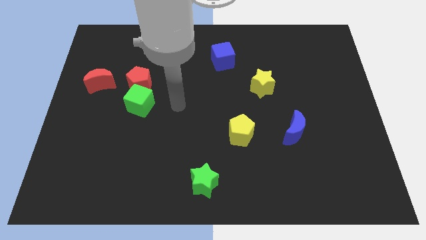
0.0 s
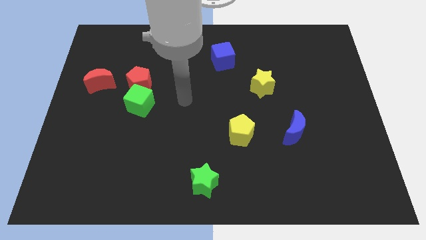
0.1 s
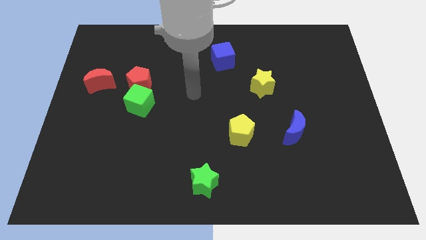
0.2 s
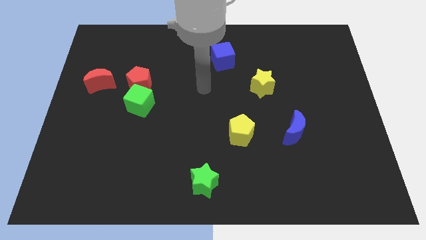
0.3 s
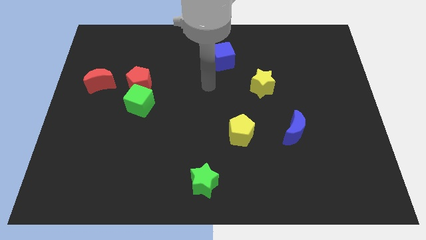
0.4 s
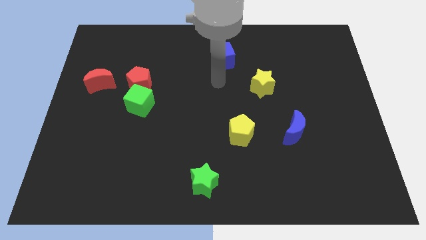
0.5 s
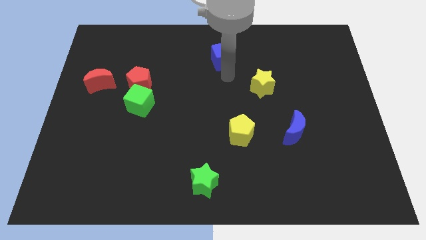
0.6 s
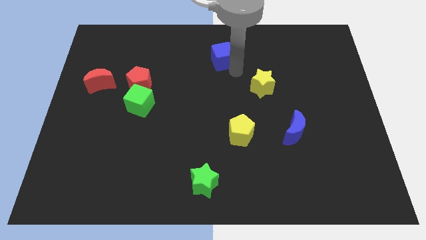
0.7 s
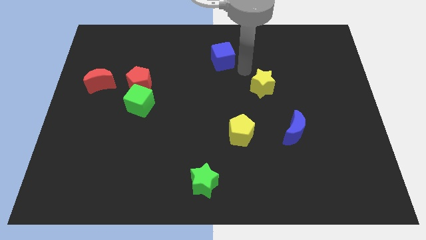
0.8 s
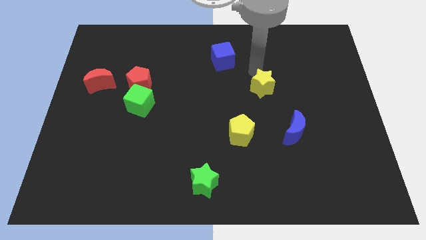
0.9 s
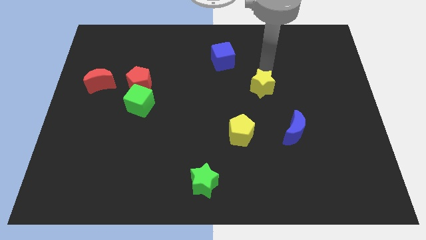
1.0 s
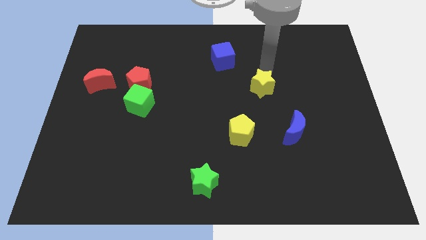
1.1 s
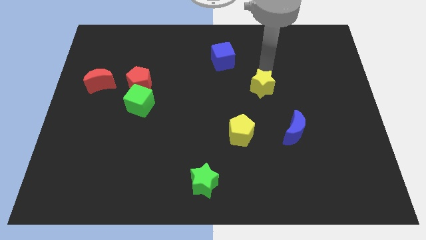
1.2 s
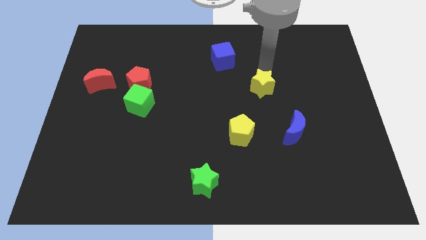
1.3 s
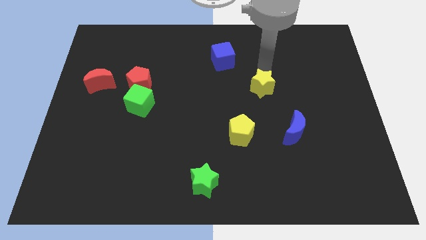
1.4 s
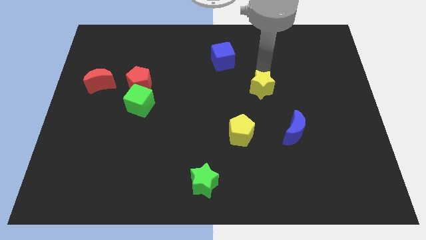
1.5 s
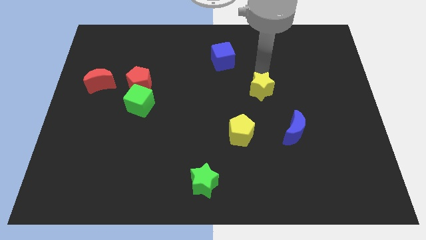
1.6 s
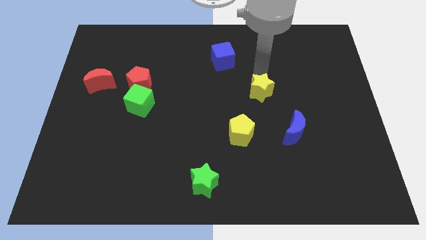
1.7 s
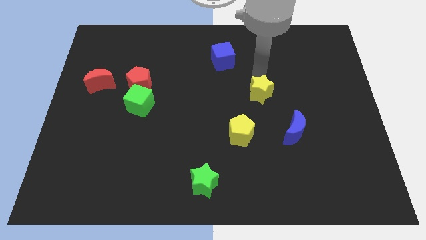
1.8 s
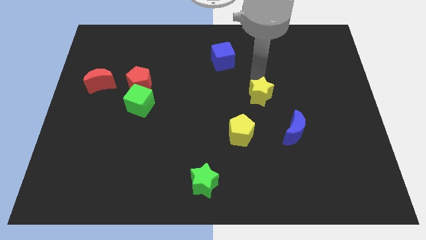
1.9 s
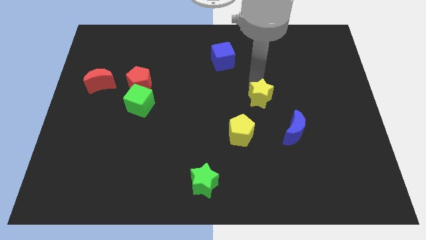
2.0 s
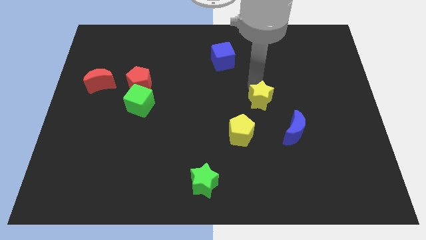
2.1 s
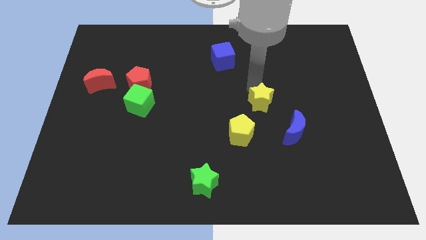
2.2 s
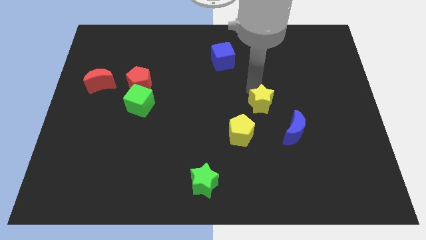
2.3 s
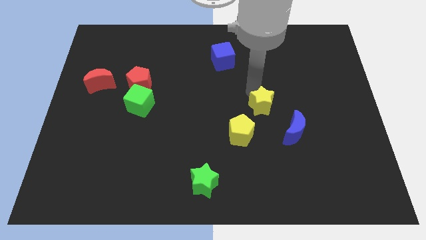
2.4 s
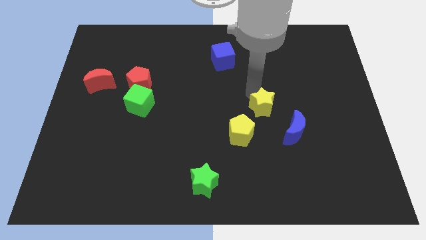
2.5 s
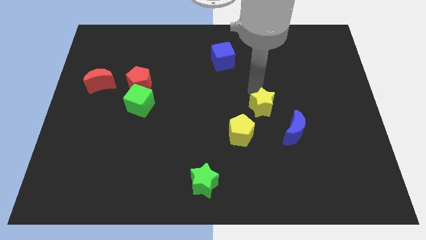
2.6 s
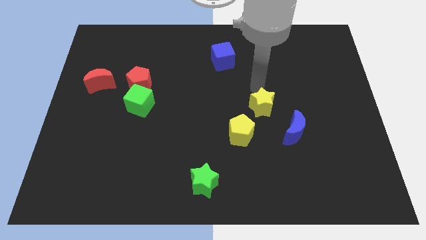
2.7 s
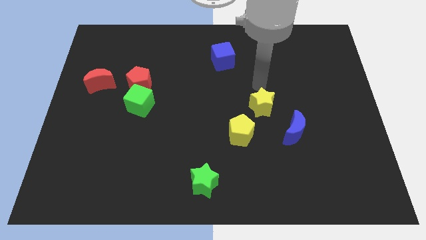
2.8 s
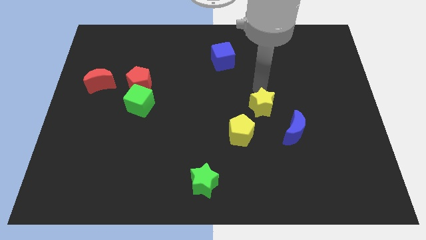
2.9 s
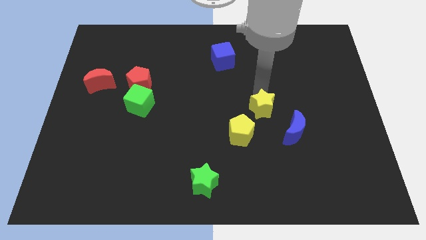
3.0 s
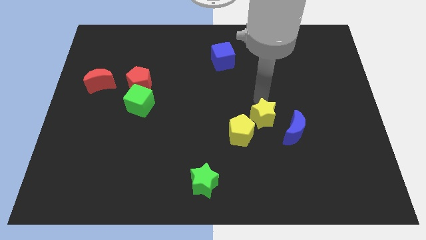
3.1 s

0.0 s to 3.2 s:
slide the yellow star a bit down

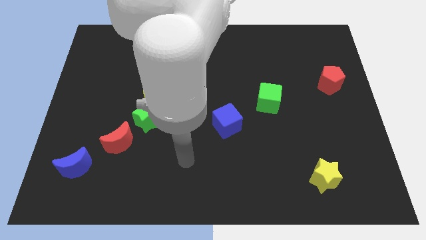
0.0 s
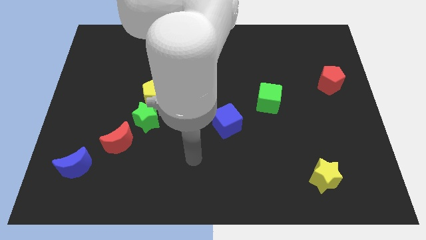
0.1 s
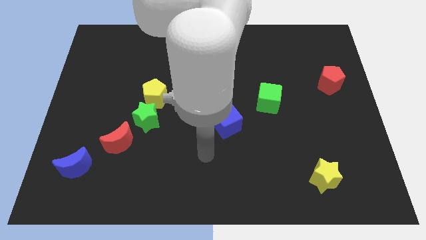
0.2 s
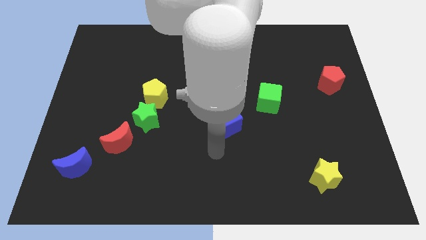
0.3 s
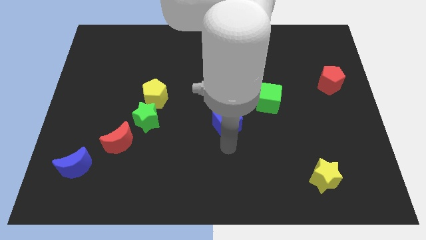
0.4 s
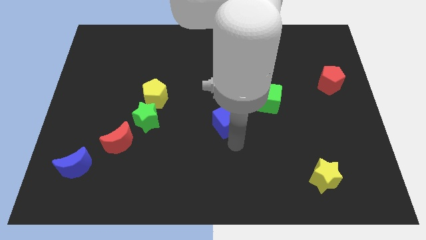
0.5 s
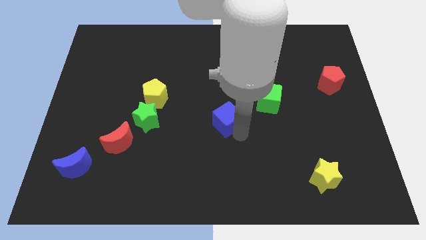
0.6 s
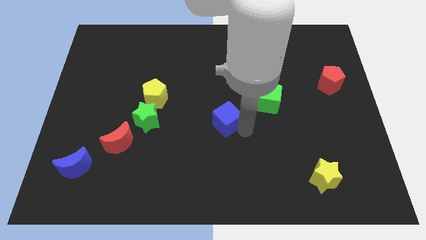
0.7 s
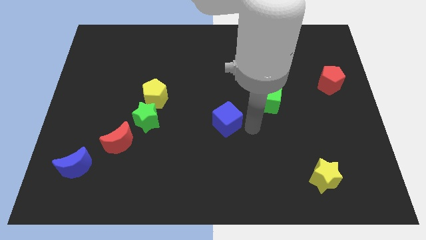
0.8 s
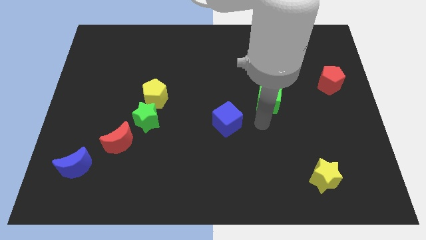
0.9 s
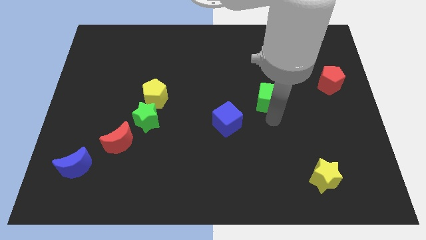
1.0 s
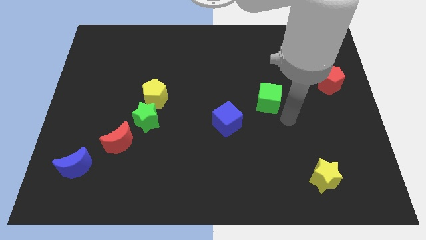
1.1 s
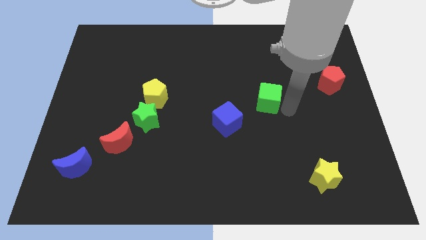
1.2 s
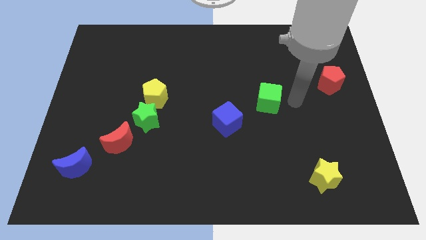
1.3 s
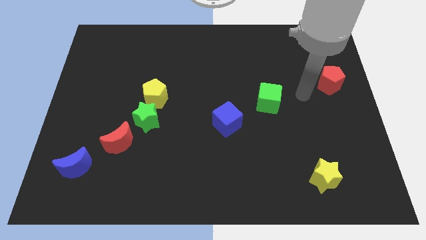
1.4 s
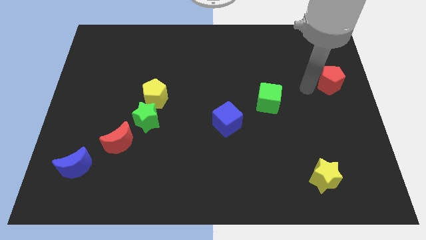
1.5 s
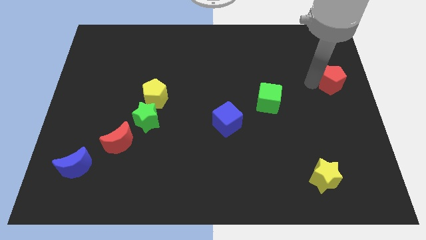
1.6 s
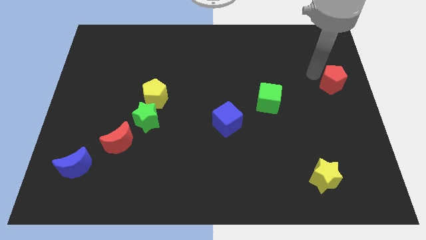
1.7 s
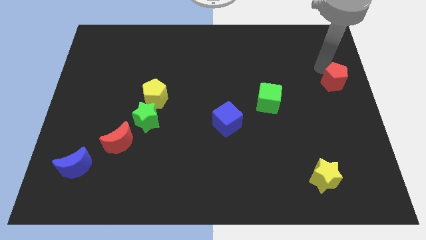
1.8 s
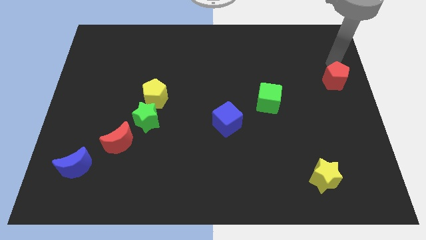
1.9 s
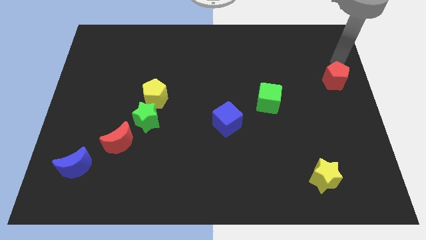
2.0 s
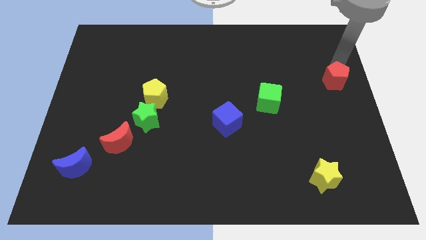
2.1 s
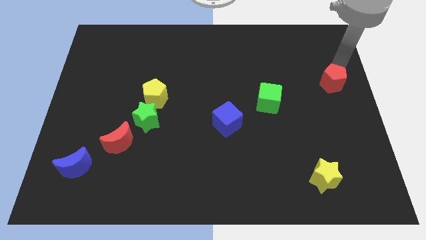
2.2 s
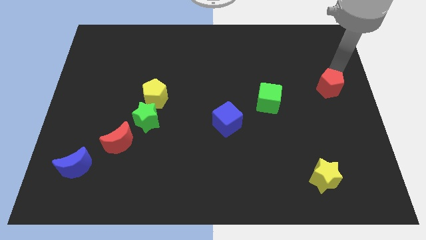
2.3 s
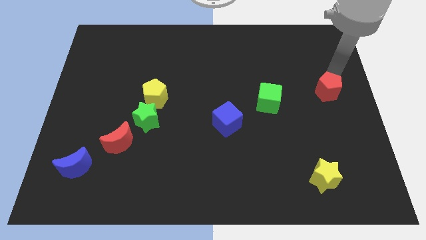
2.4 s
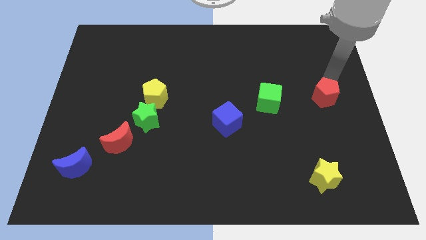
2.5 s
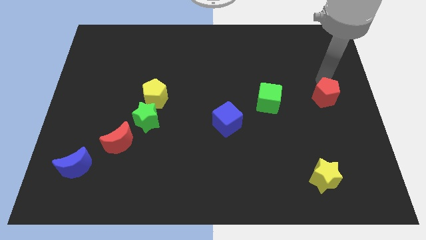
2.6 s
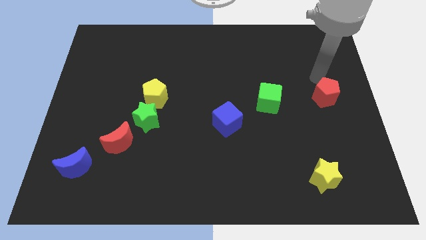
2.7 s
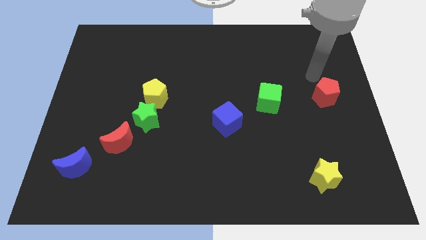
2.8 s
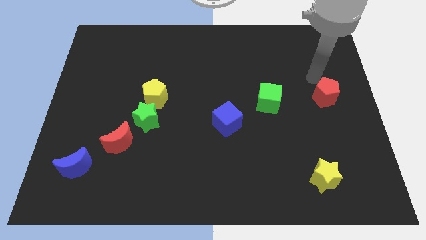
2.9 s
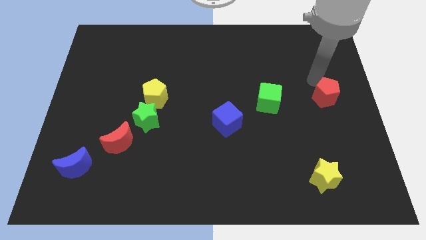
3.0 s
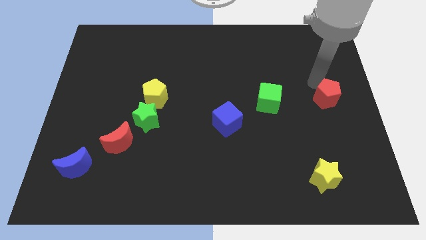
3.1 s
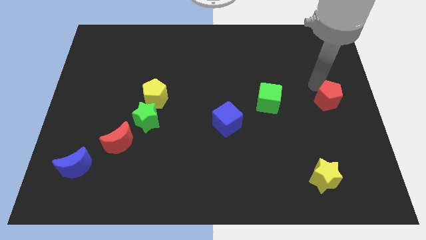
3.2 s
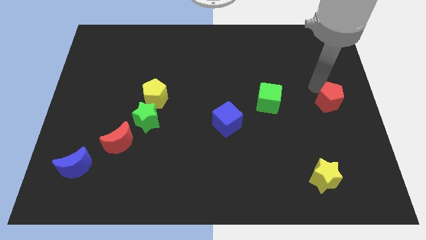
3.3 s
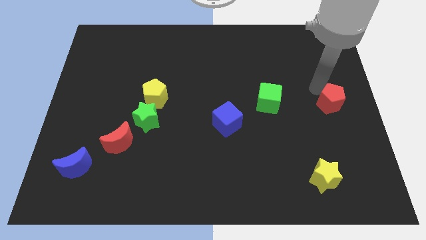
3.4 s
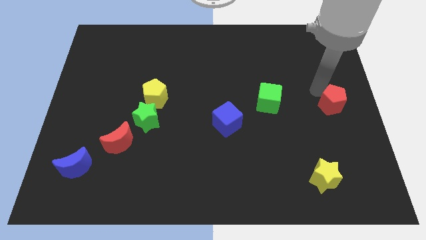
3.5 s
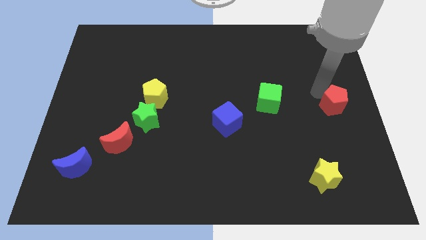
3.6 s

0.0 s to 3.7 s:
slide the red pentagon a little downwards

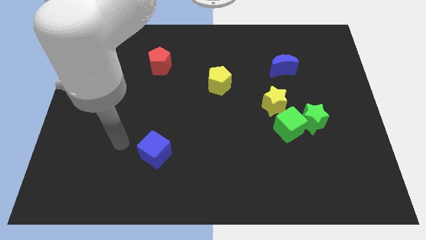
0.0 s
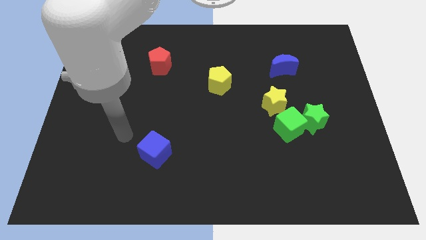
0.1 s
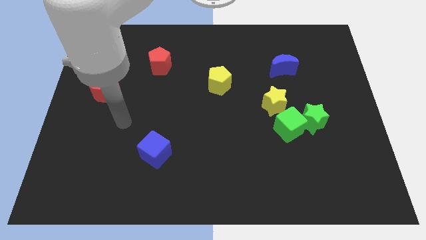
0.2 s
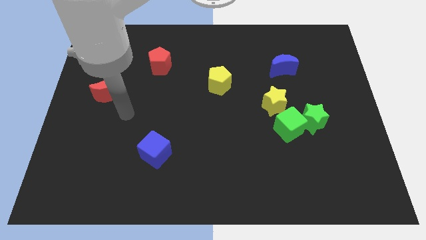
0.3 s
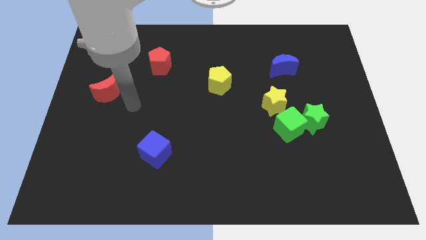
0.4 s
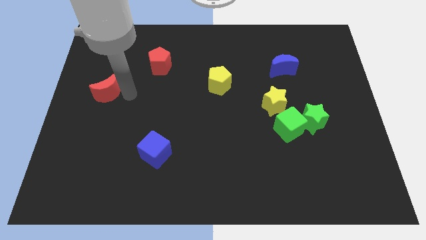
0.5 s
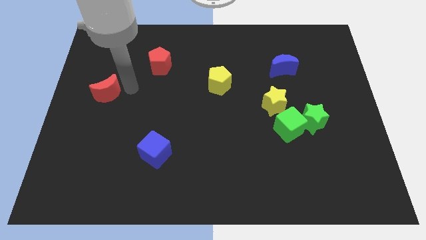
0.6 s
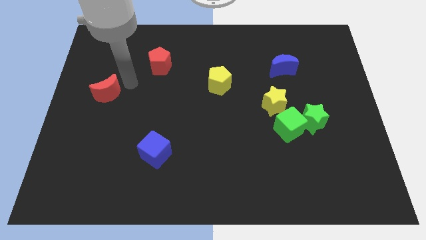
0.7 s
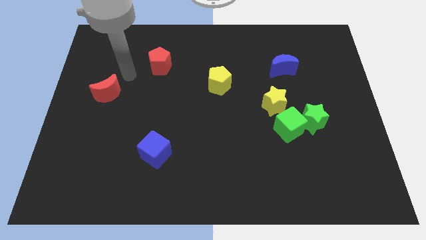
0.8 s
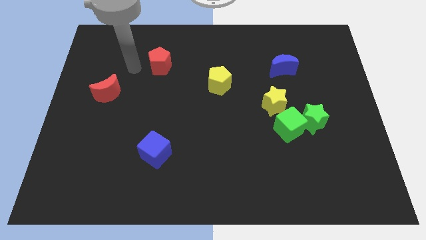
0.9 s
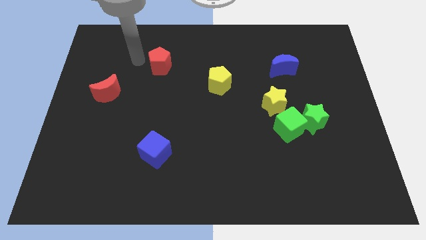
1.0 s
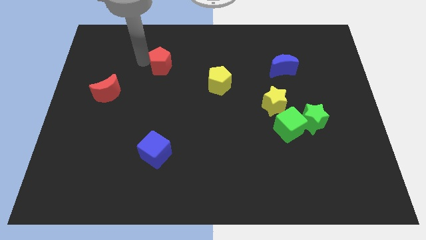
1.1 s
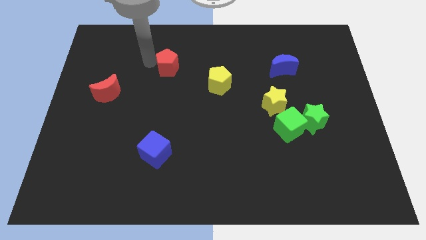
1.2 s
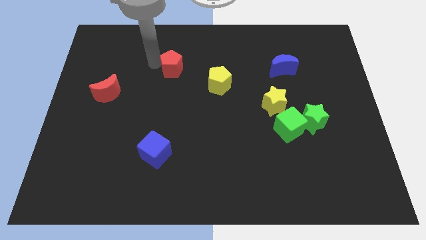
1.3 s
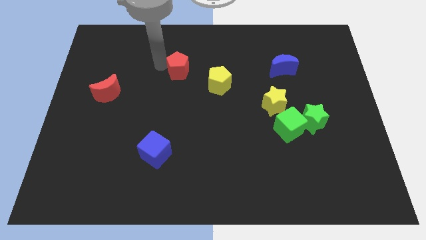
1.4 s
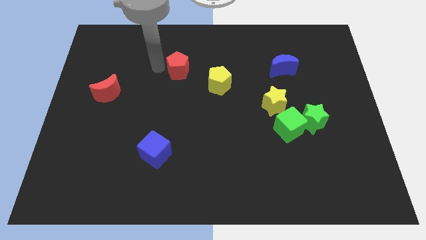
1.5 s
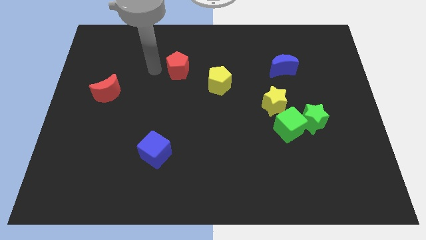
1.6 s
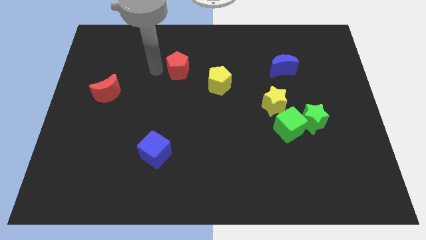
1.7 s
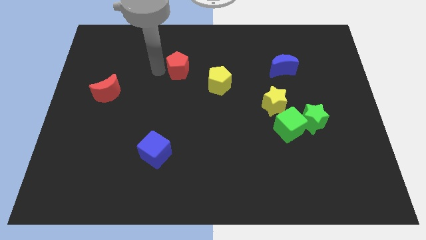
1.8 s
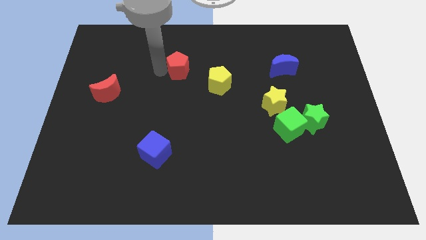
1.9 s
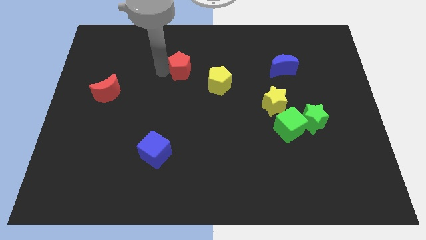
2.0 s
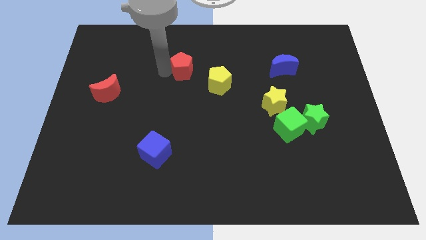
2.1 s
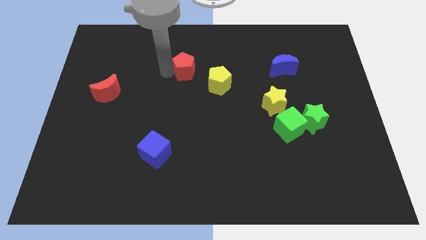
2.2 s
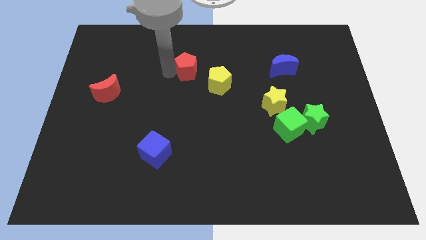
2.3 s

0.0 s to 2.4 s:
slightly slide the red pentagon right
